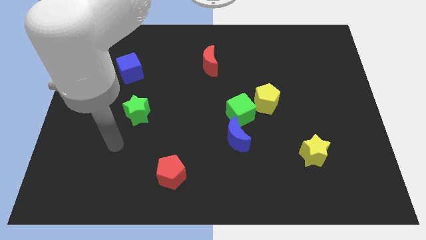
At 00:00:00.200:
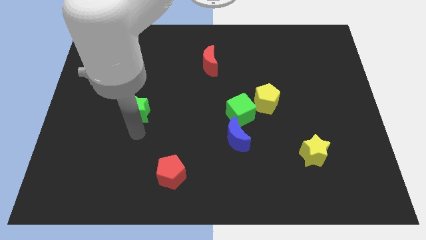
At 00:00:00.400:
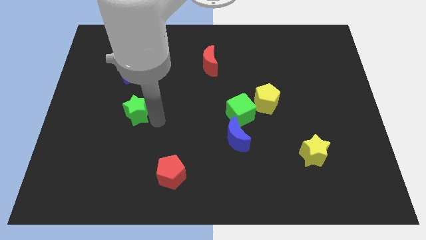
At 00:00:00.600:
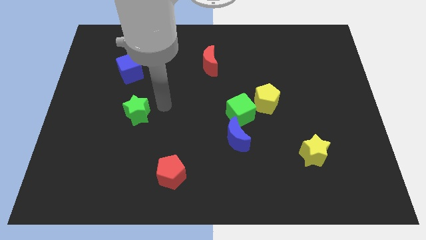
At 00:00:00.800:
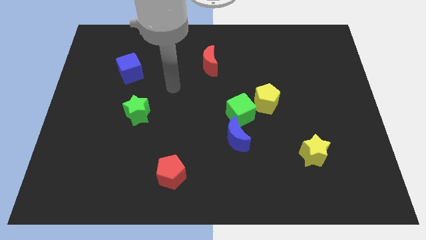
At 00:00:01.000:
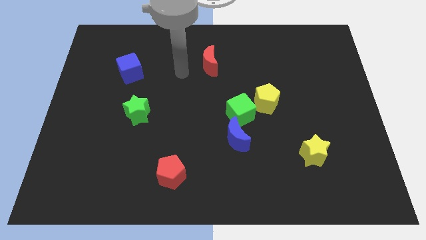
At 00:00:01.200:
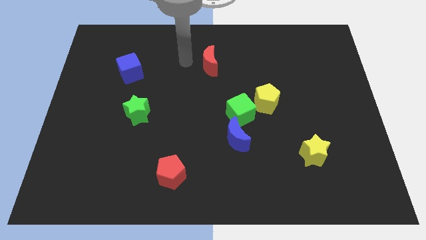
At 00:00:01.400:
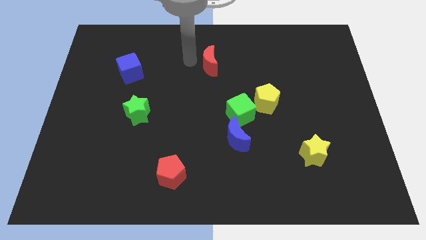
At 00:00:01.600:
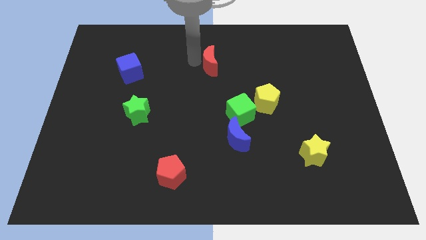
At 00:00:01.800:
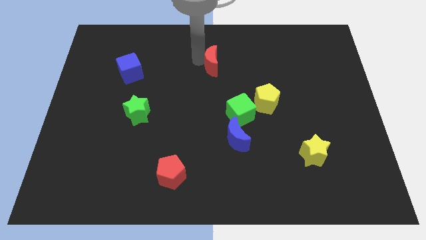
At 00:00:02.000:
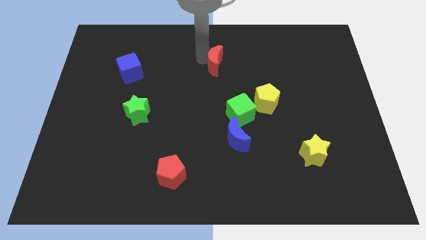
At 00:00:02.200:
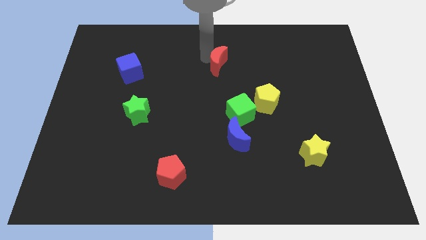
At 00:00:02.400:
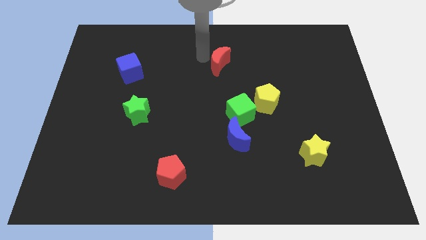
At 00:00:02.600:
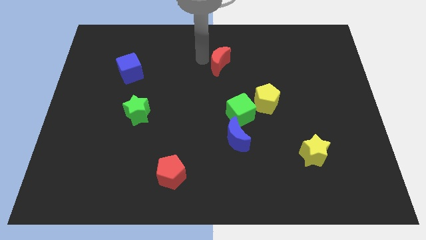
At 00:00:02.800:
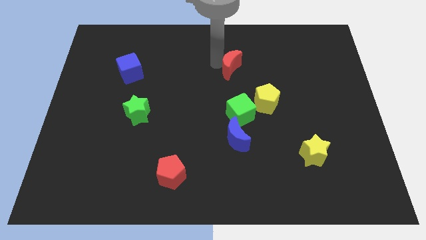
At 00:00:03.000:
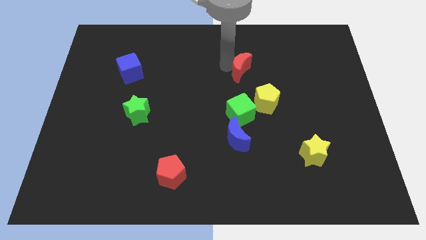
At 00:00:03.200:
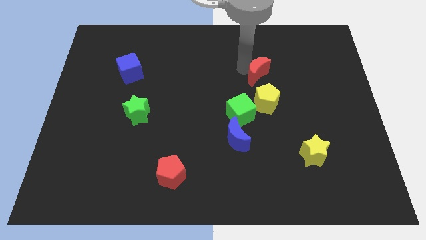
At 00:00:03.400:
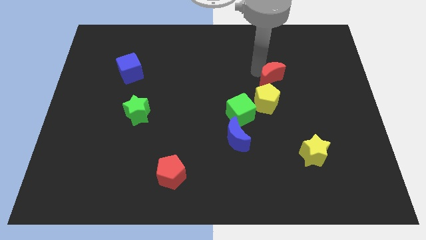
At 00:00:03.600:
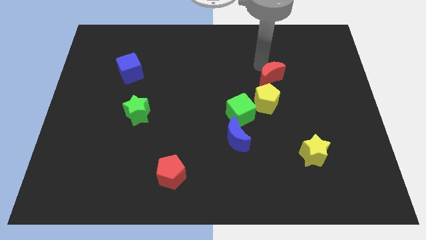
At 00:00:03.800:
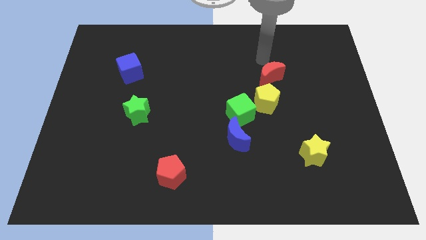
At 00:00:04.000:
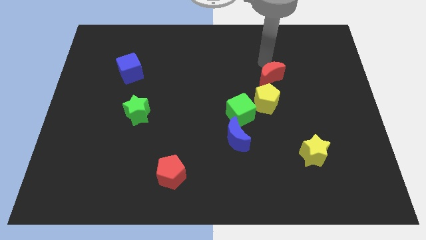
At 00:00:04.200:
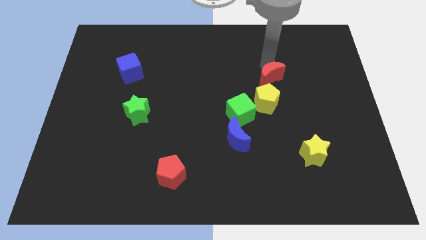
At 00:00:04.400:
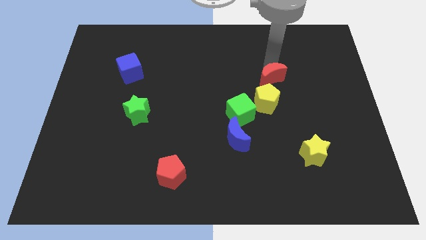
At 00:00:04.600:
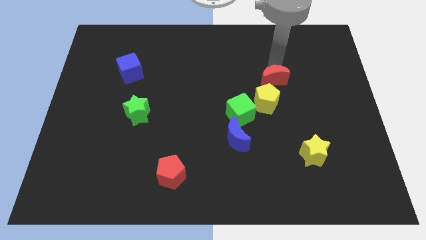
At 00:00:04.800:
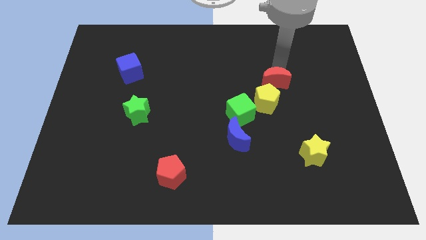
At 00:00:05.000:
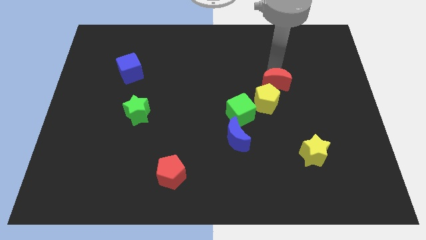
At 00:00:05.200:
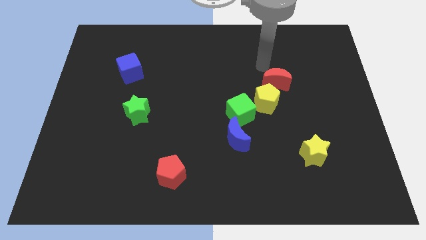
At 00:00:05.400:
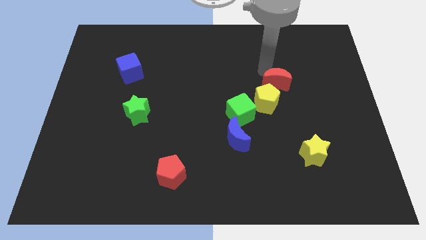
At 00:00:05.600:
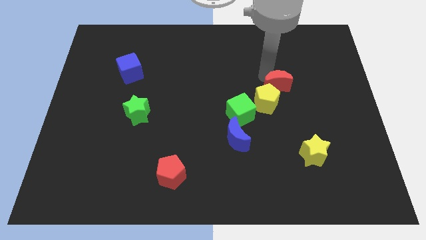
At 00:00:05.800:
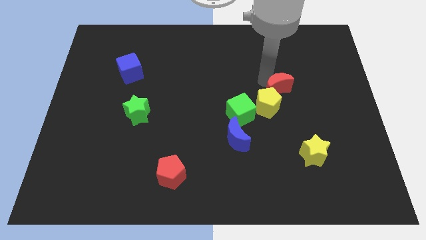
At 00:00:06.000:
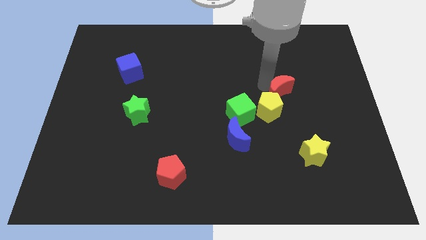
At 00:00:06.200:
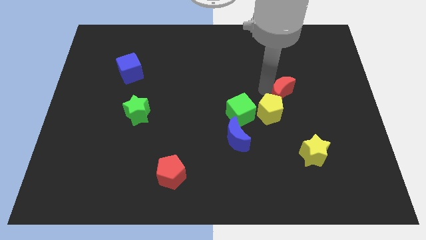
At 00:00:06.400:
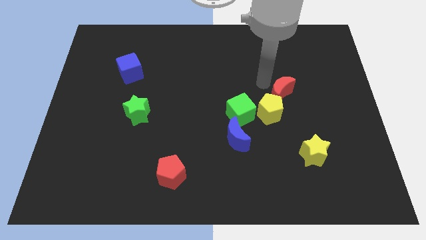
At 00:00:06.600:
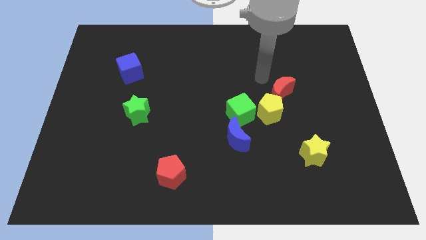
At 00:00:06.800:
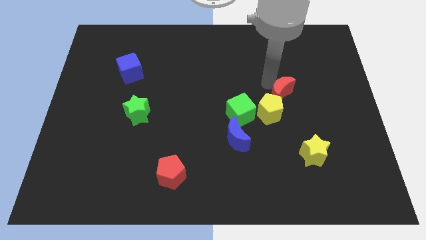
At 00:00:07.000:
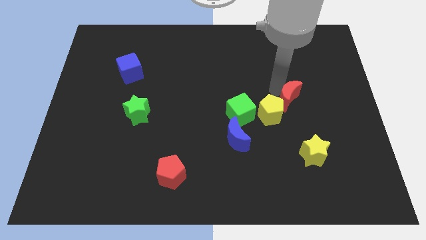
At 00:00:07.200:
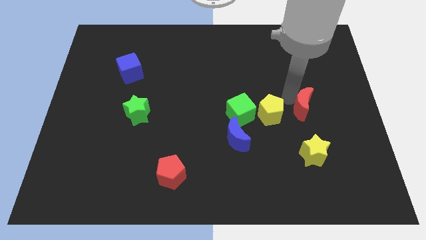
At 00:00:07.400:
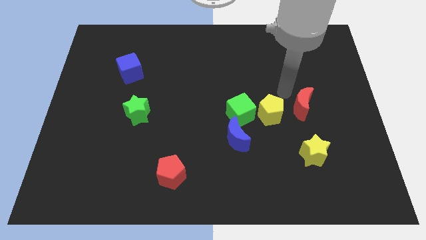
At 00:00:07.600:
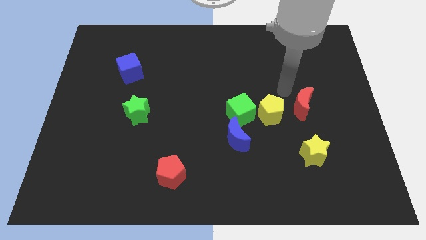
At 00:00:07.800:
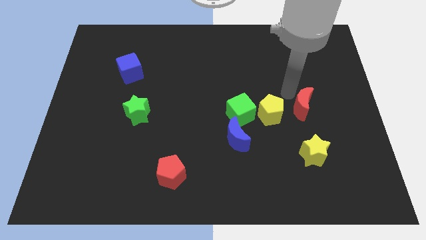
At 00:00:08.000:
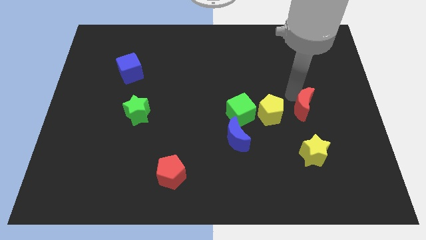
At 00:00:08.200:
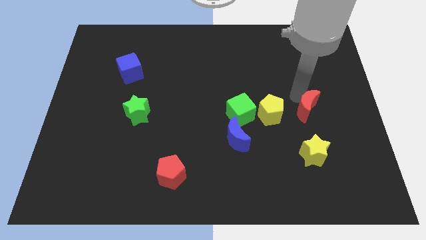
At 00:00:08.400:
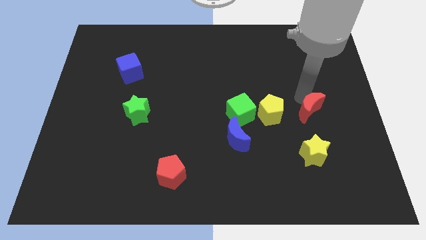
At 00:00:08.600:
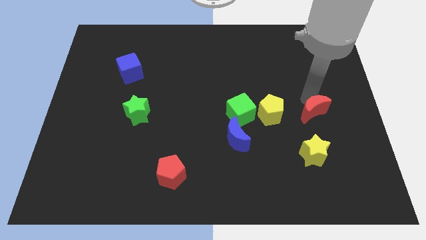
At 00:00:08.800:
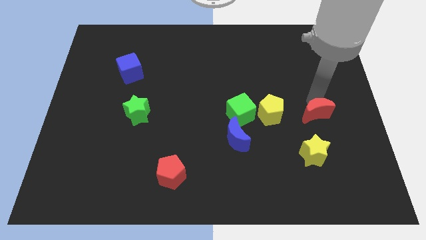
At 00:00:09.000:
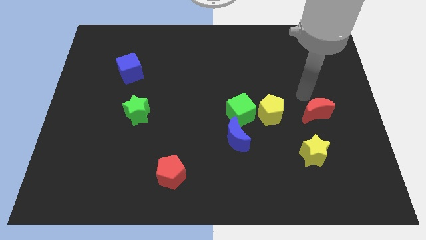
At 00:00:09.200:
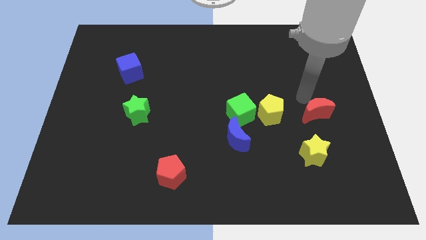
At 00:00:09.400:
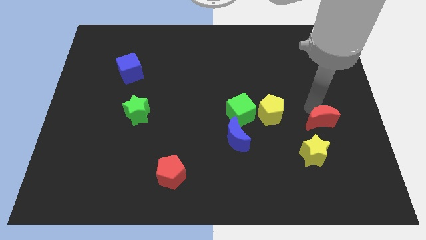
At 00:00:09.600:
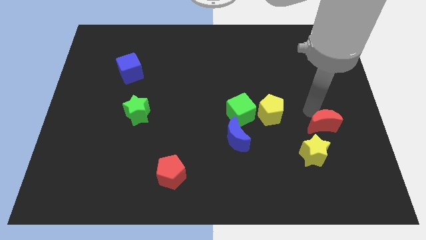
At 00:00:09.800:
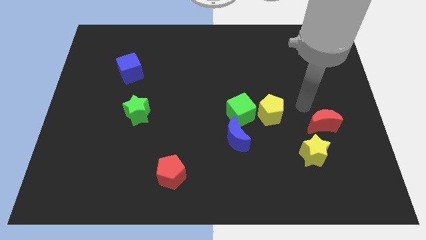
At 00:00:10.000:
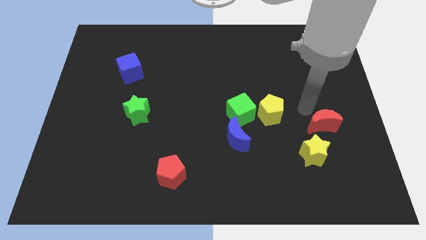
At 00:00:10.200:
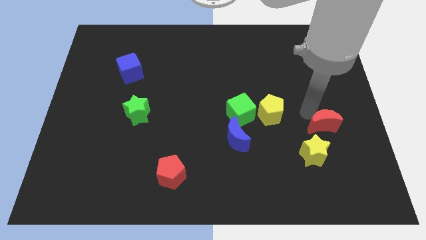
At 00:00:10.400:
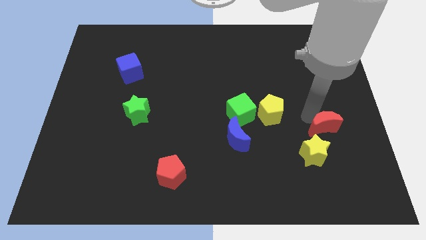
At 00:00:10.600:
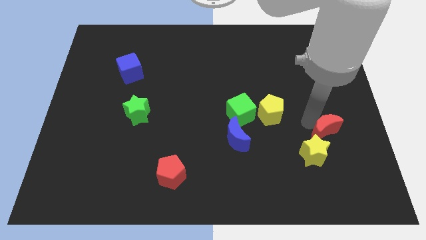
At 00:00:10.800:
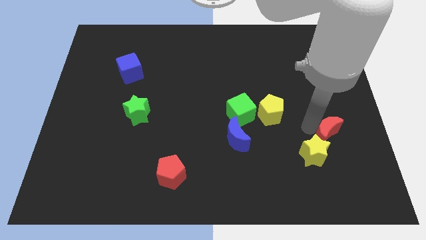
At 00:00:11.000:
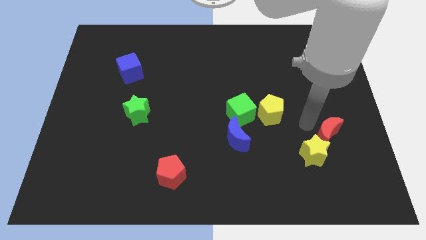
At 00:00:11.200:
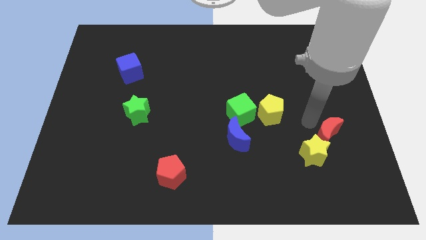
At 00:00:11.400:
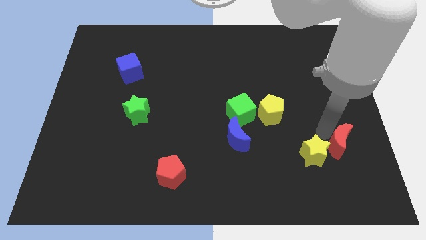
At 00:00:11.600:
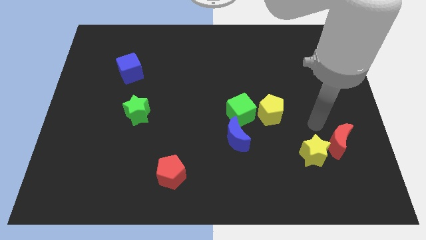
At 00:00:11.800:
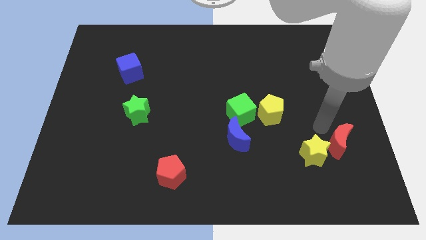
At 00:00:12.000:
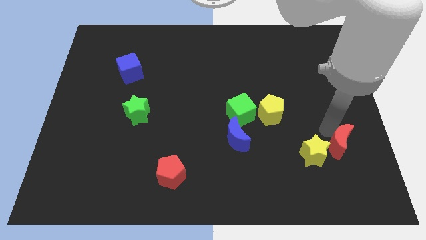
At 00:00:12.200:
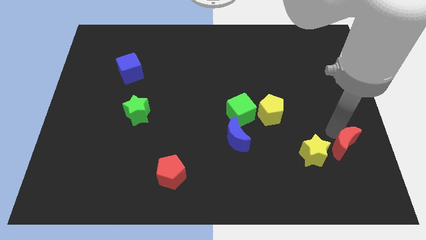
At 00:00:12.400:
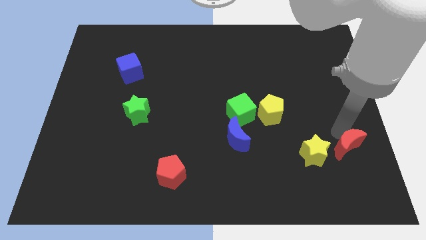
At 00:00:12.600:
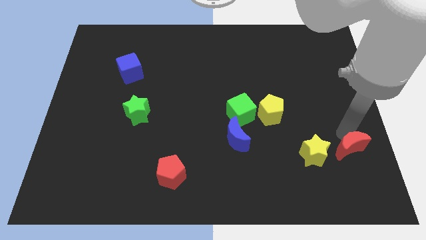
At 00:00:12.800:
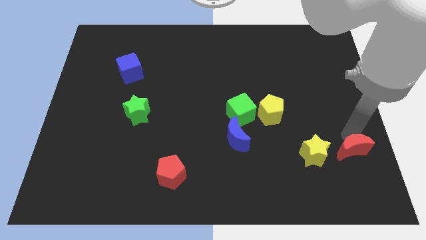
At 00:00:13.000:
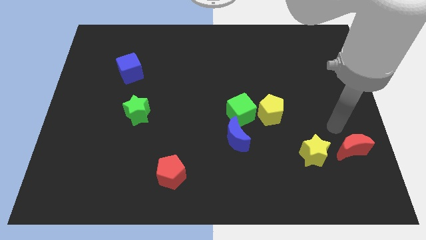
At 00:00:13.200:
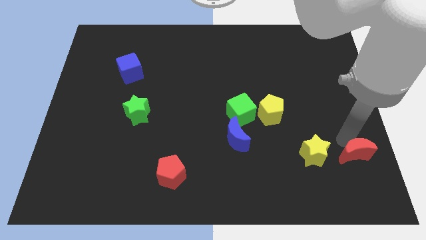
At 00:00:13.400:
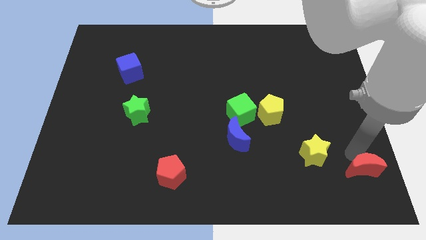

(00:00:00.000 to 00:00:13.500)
push the red moon to the bottom right of the board
